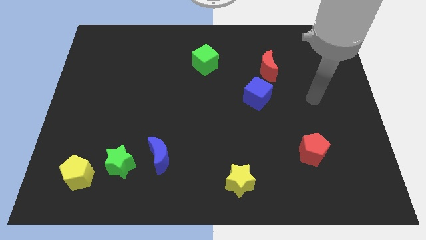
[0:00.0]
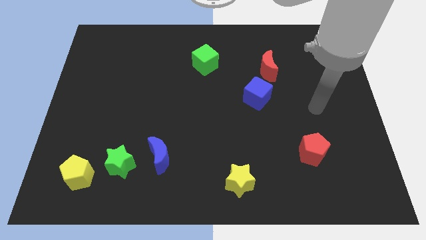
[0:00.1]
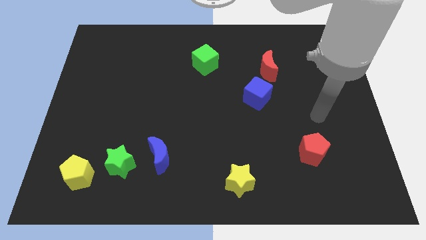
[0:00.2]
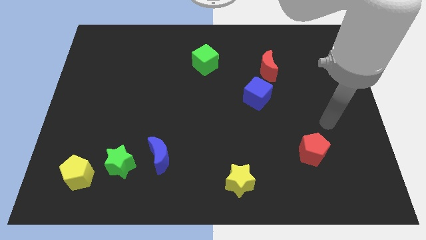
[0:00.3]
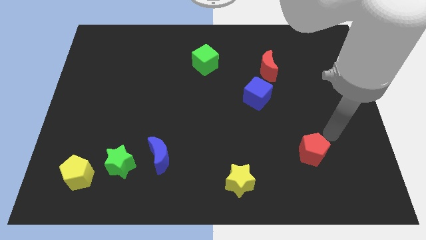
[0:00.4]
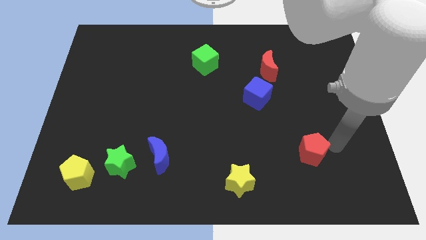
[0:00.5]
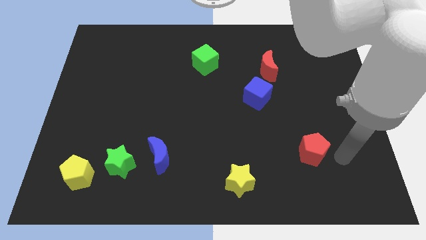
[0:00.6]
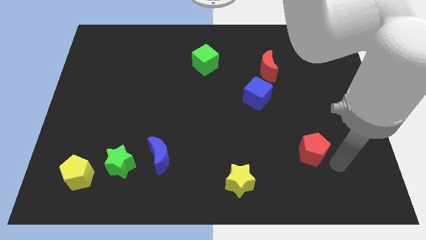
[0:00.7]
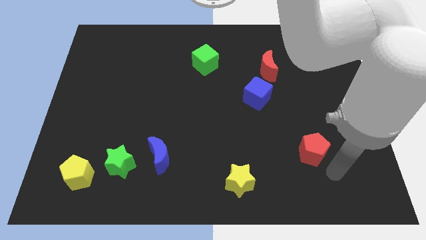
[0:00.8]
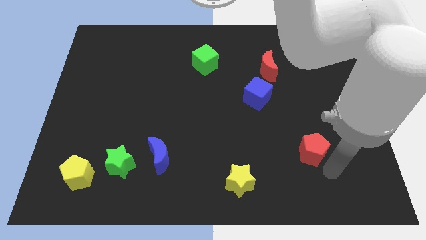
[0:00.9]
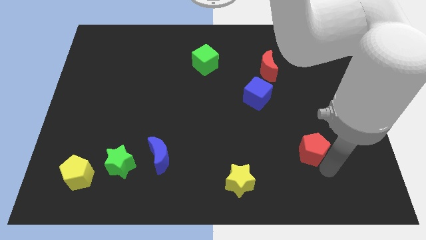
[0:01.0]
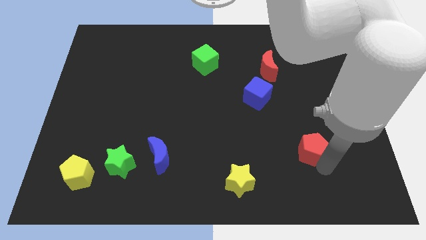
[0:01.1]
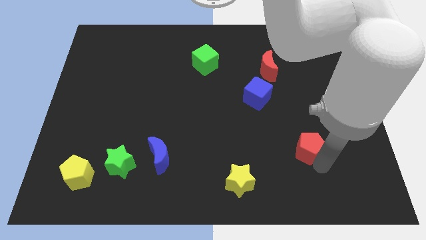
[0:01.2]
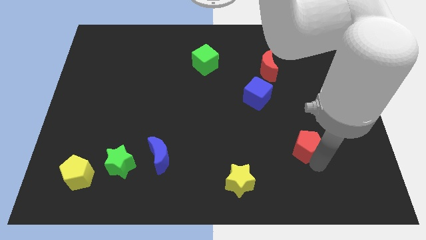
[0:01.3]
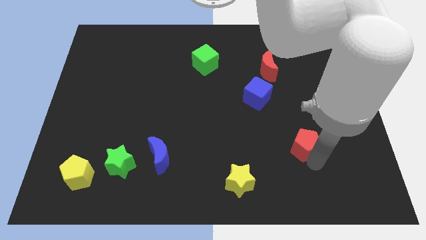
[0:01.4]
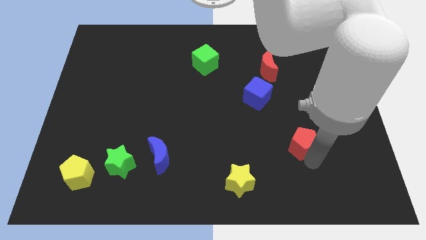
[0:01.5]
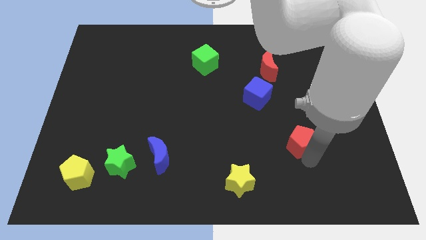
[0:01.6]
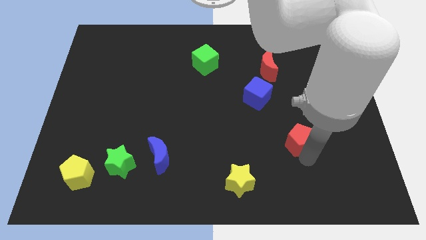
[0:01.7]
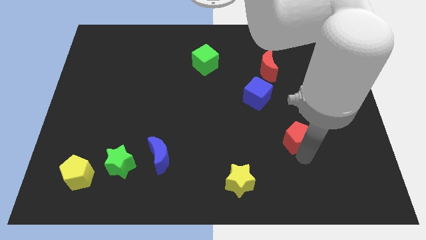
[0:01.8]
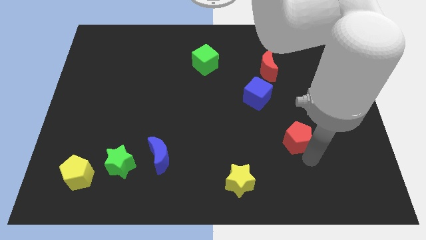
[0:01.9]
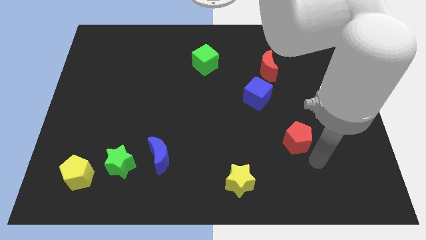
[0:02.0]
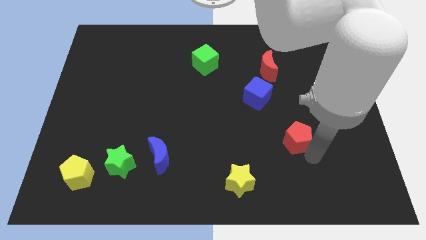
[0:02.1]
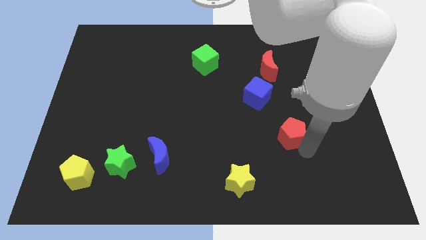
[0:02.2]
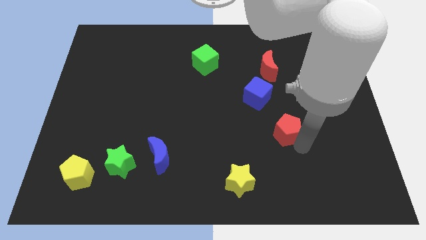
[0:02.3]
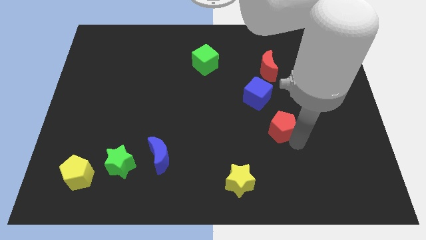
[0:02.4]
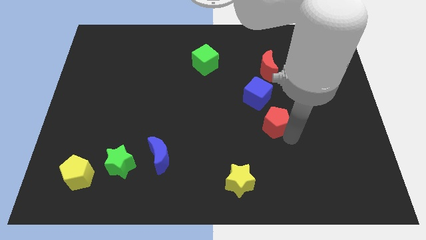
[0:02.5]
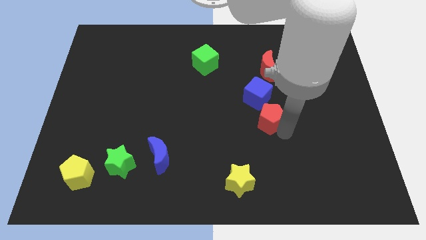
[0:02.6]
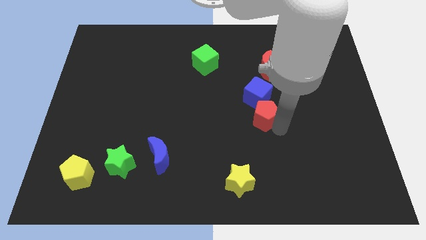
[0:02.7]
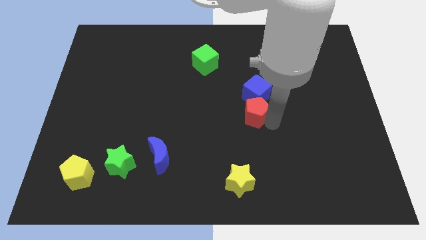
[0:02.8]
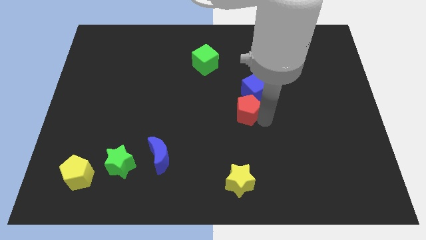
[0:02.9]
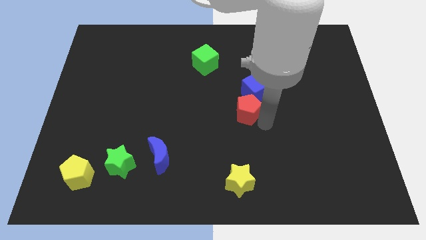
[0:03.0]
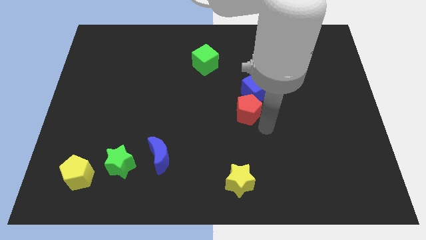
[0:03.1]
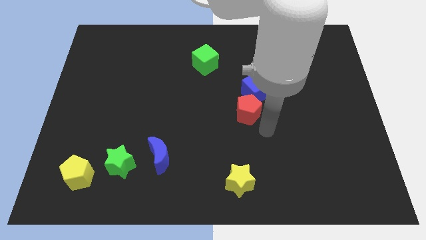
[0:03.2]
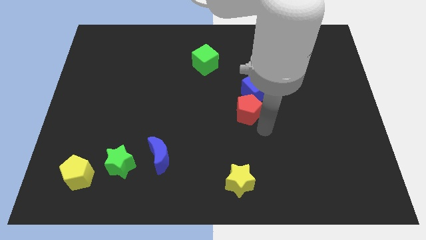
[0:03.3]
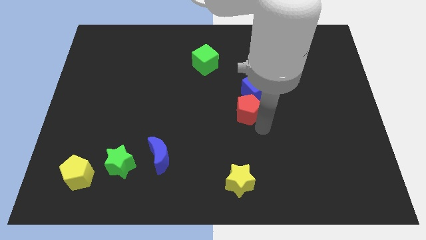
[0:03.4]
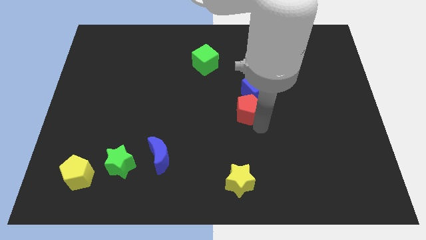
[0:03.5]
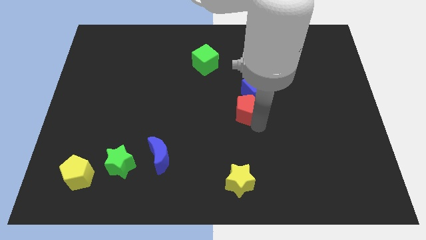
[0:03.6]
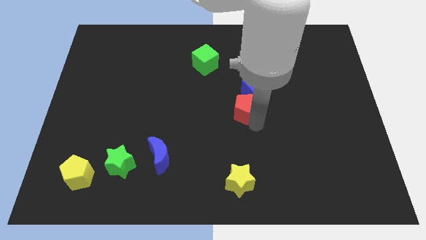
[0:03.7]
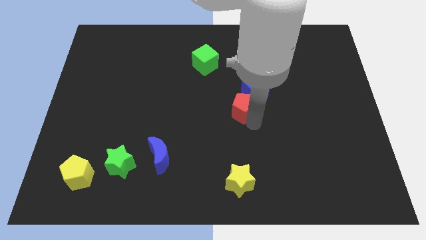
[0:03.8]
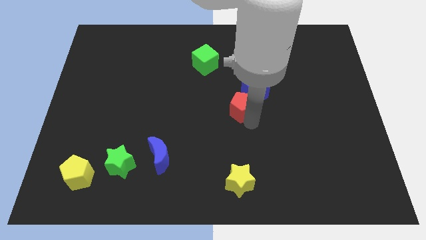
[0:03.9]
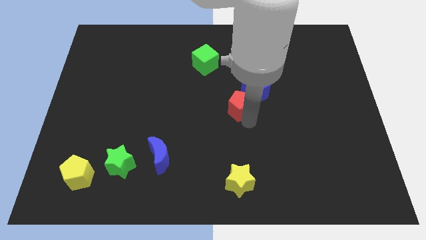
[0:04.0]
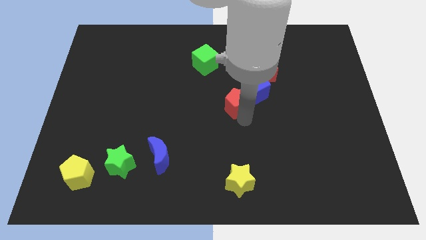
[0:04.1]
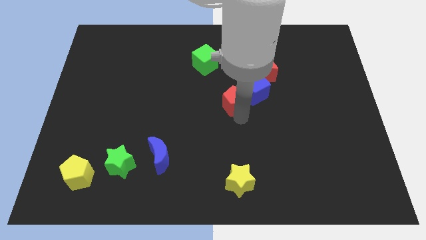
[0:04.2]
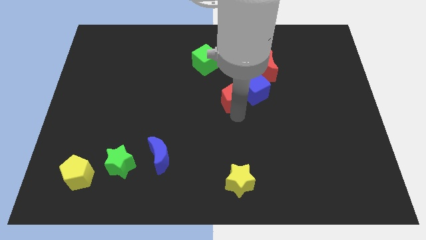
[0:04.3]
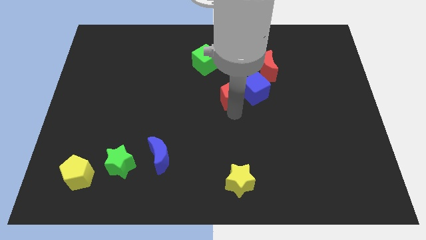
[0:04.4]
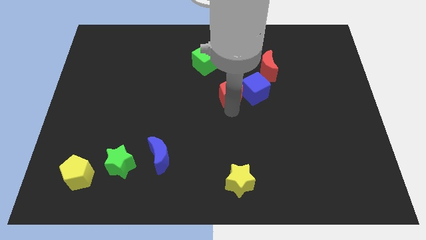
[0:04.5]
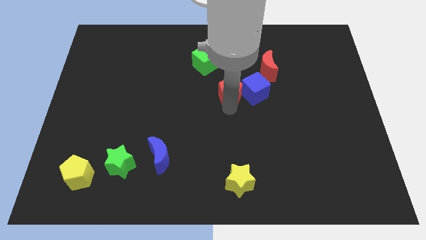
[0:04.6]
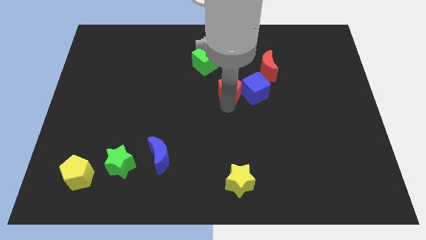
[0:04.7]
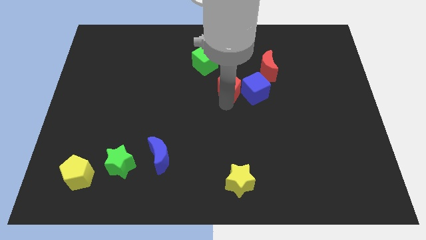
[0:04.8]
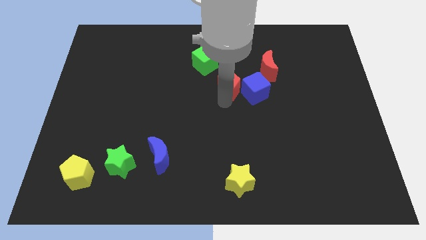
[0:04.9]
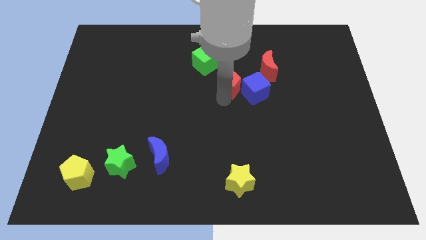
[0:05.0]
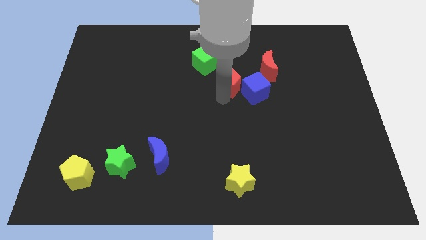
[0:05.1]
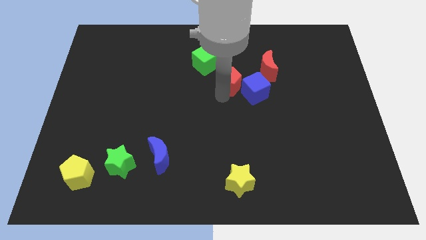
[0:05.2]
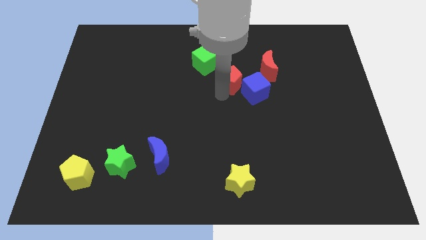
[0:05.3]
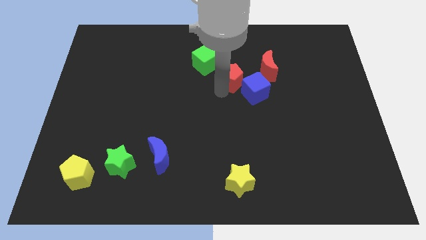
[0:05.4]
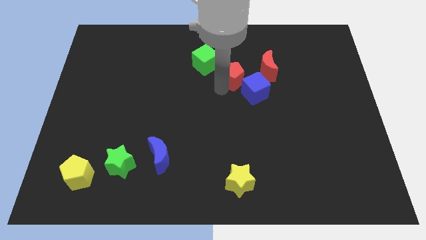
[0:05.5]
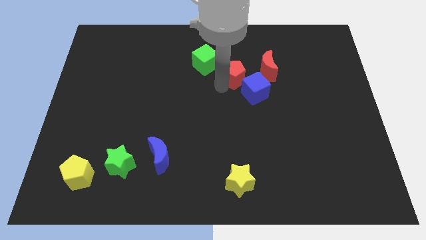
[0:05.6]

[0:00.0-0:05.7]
move the red pentagon just right of the green cube

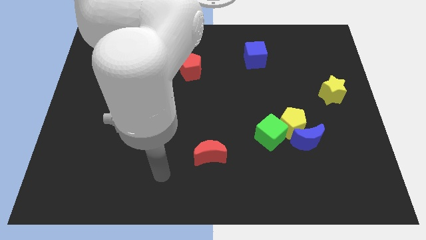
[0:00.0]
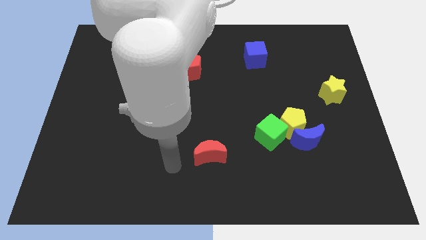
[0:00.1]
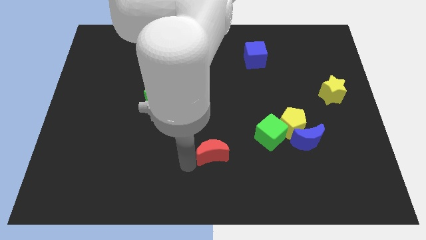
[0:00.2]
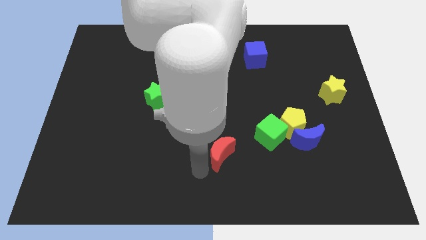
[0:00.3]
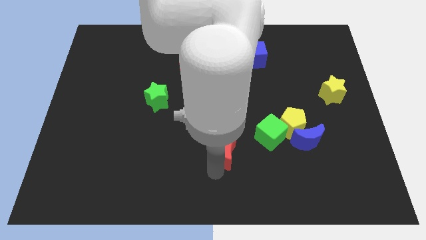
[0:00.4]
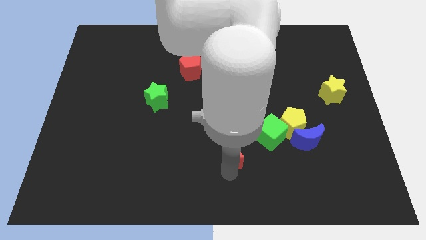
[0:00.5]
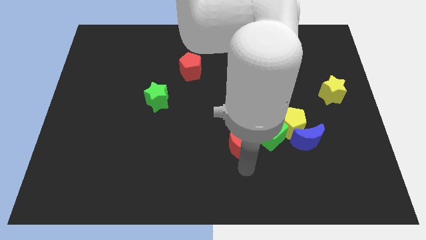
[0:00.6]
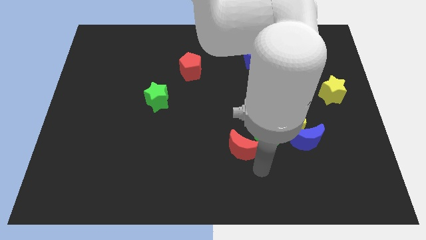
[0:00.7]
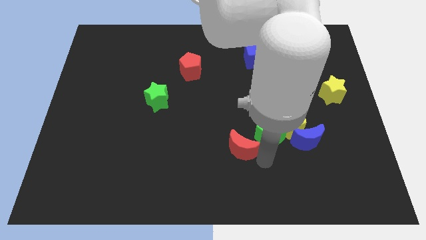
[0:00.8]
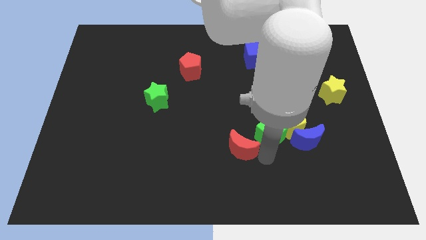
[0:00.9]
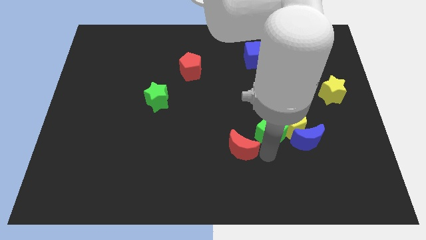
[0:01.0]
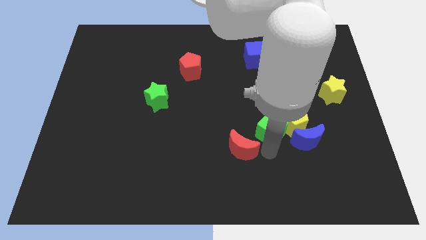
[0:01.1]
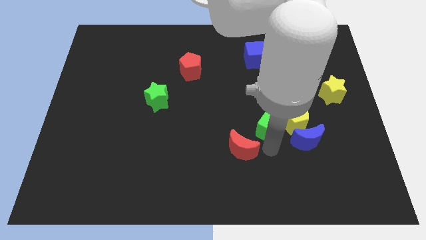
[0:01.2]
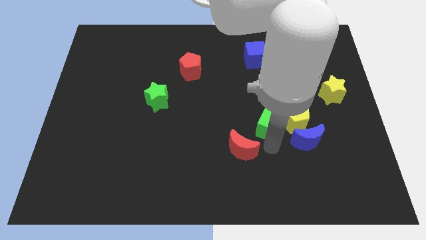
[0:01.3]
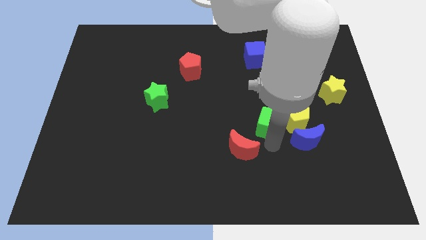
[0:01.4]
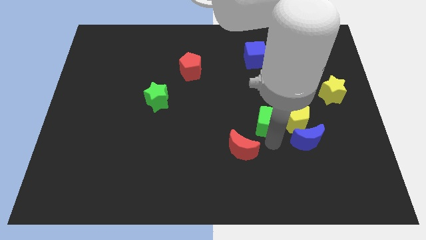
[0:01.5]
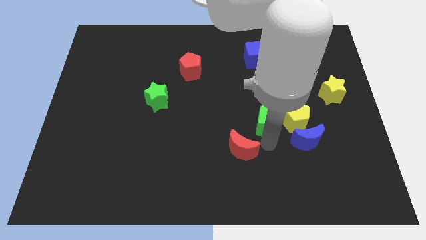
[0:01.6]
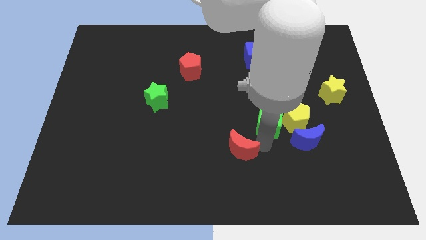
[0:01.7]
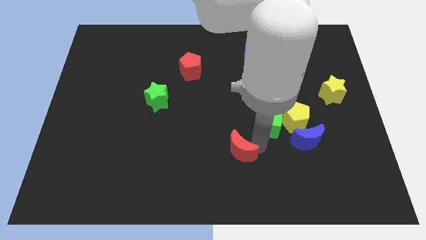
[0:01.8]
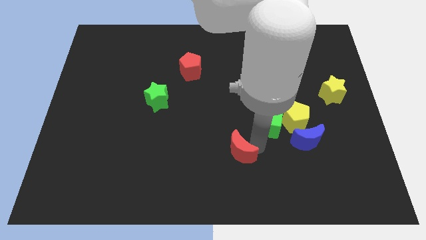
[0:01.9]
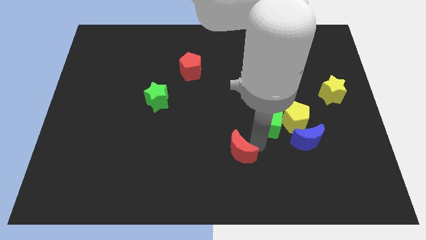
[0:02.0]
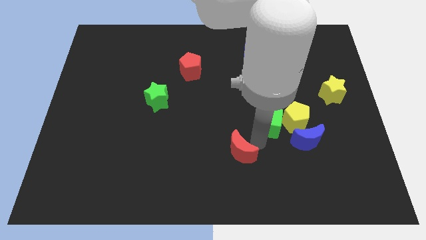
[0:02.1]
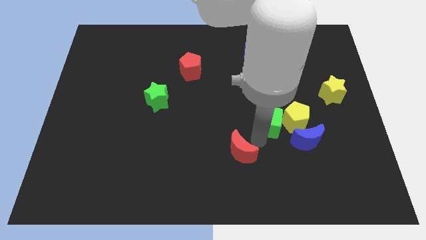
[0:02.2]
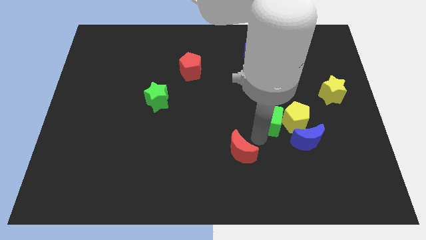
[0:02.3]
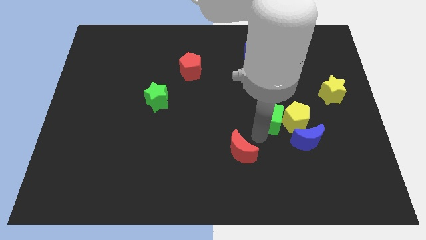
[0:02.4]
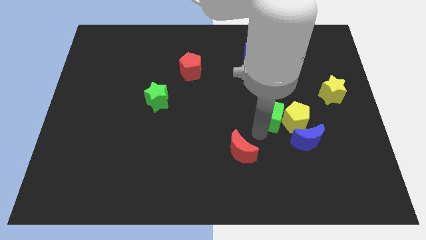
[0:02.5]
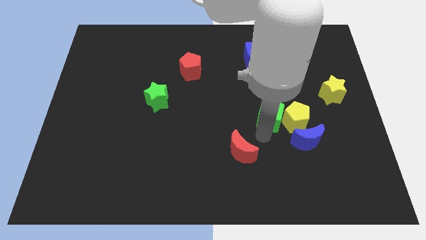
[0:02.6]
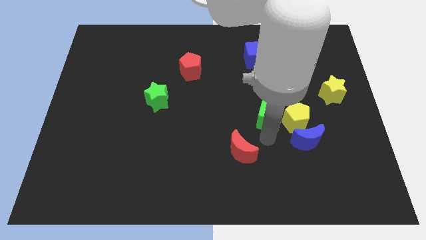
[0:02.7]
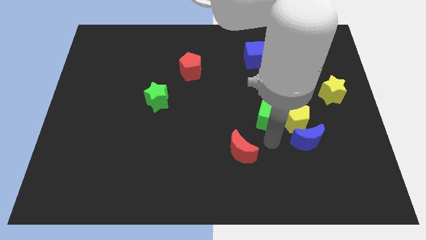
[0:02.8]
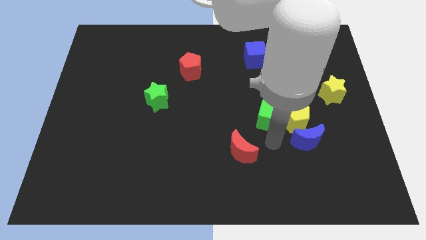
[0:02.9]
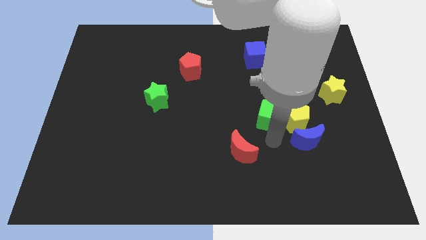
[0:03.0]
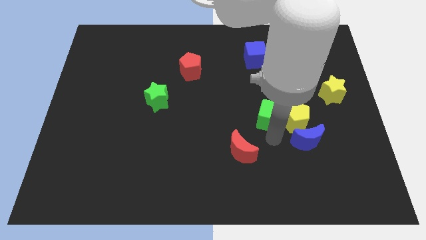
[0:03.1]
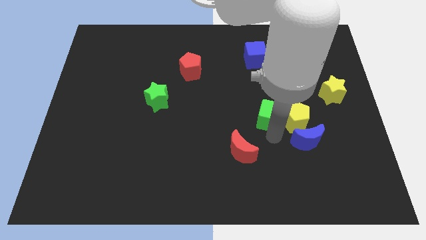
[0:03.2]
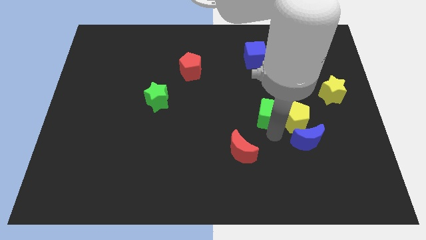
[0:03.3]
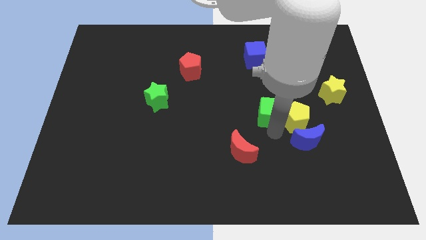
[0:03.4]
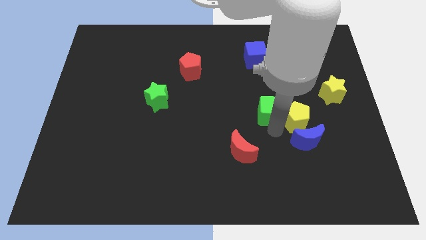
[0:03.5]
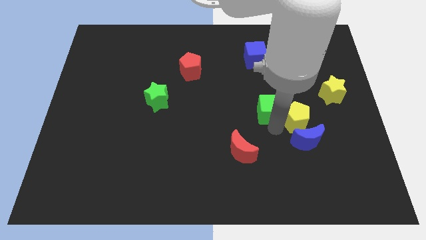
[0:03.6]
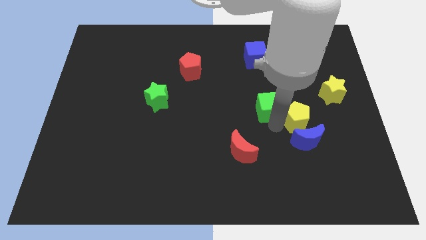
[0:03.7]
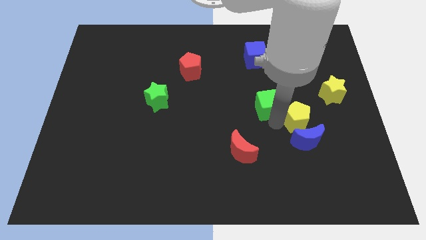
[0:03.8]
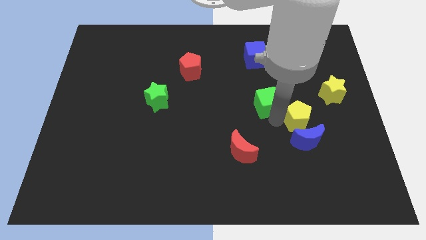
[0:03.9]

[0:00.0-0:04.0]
slide the green cube to the bottom of the blue cube
